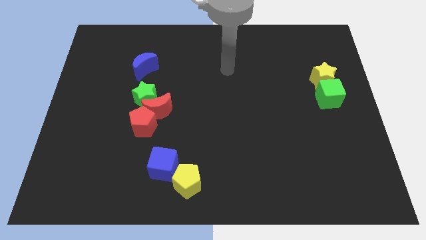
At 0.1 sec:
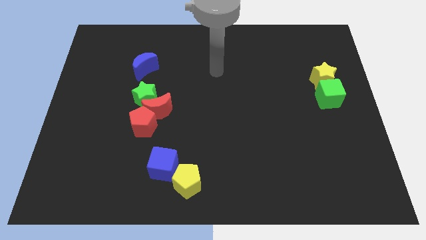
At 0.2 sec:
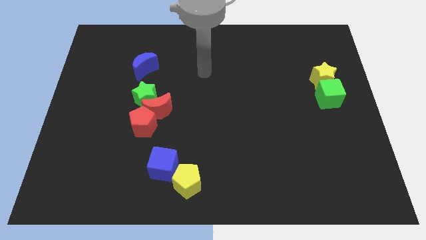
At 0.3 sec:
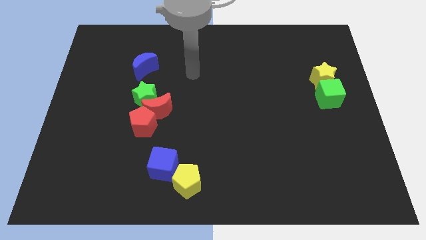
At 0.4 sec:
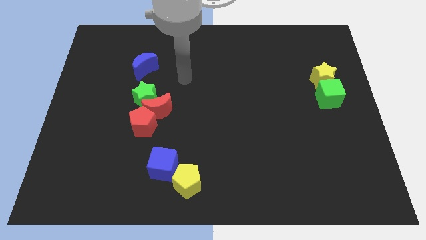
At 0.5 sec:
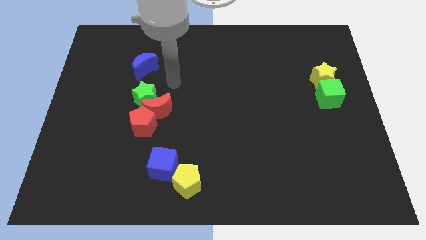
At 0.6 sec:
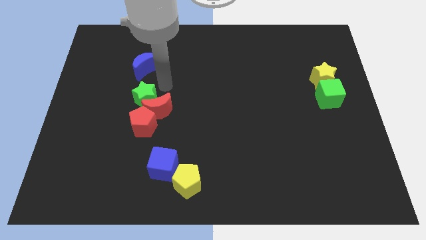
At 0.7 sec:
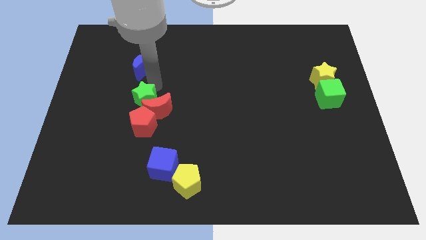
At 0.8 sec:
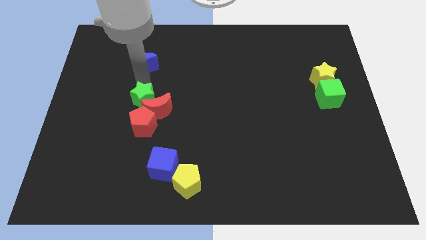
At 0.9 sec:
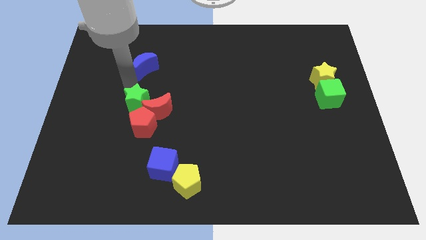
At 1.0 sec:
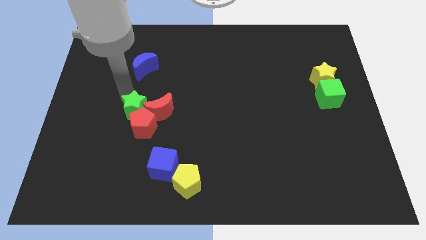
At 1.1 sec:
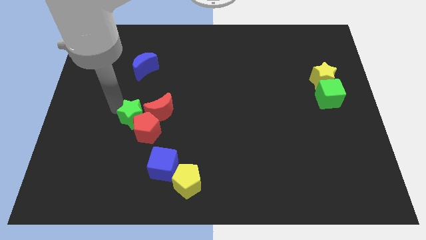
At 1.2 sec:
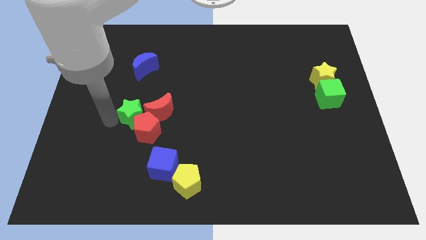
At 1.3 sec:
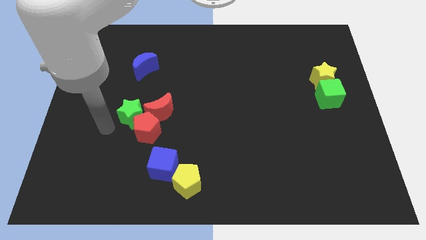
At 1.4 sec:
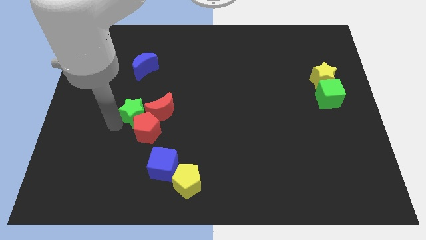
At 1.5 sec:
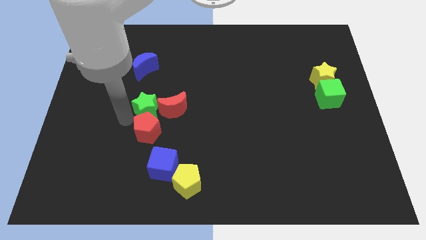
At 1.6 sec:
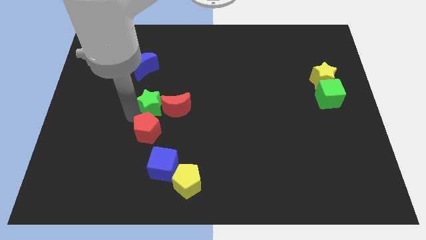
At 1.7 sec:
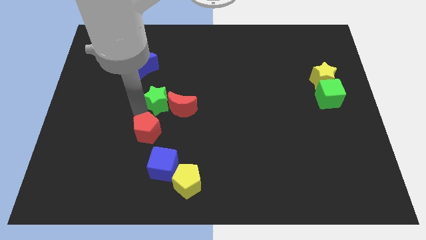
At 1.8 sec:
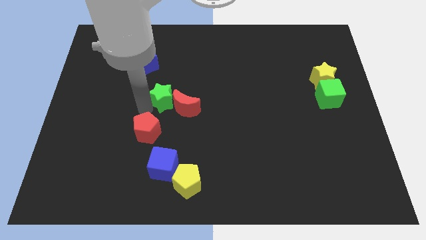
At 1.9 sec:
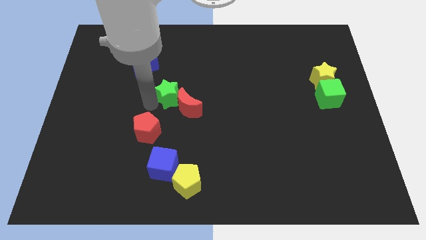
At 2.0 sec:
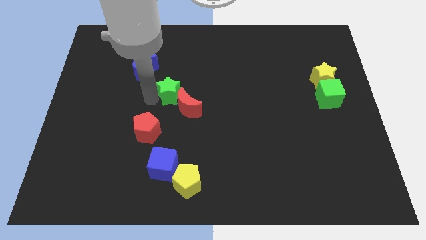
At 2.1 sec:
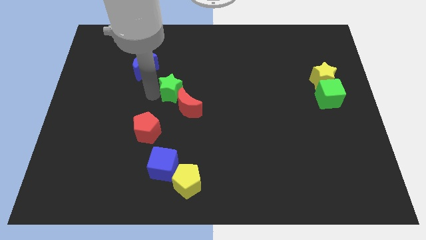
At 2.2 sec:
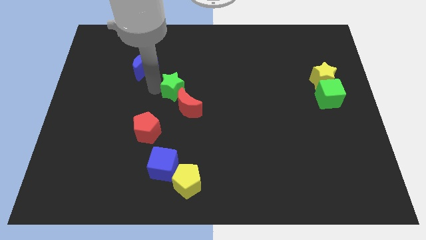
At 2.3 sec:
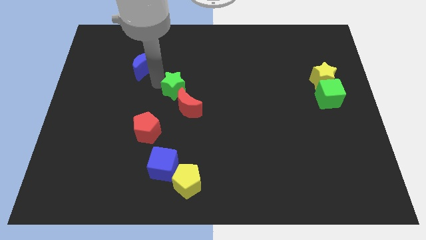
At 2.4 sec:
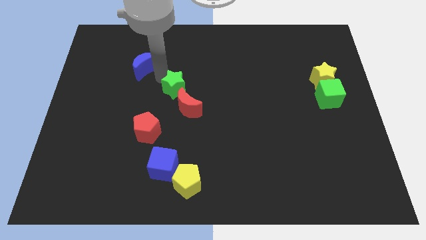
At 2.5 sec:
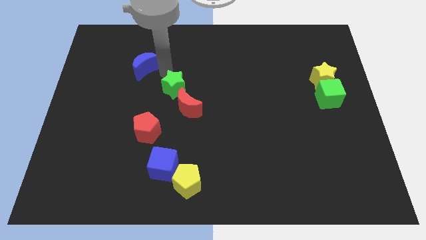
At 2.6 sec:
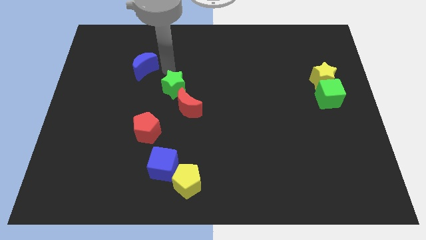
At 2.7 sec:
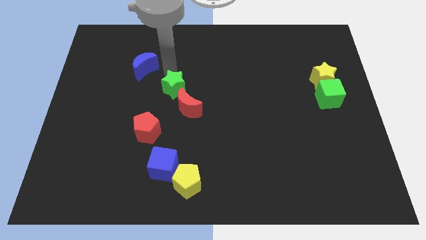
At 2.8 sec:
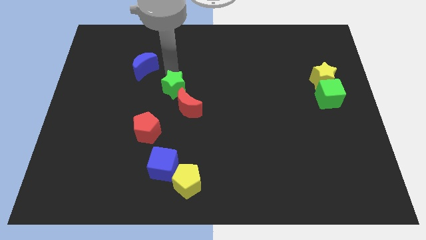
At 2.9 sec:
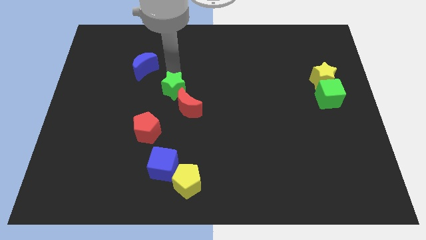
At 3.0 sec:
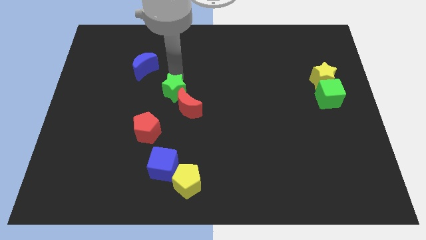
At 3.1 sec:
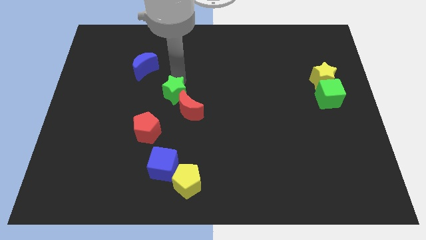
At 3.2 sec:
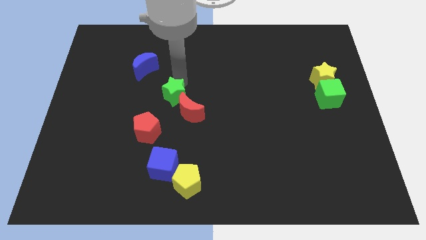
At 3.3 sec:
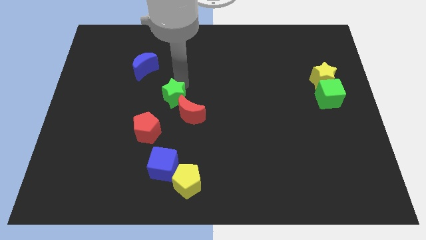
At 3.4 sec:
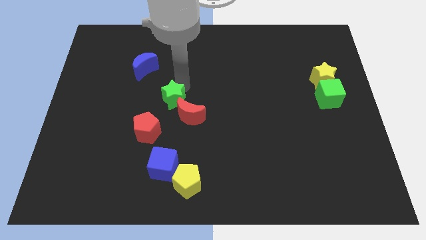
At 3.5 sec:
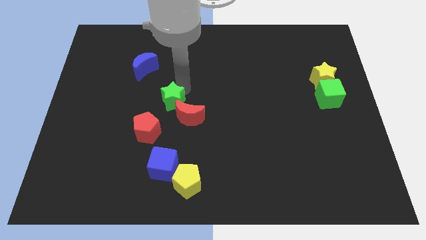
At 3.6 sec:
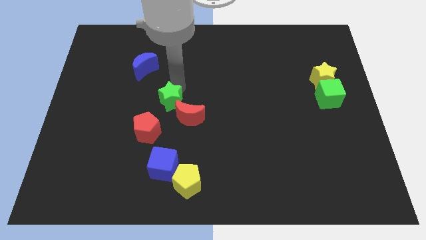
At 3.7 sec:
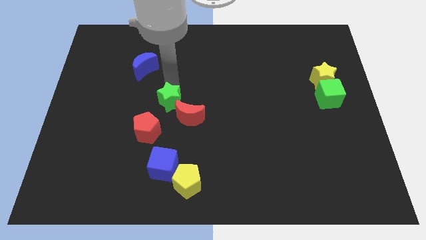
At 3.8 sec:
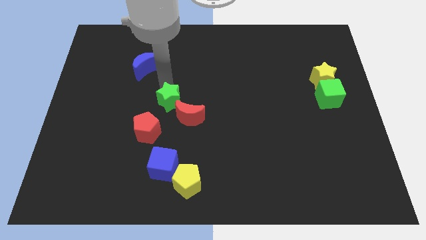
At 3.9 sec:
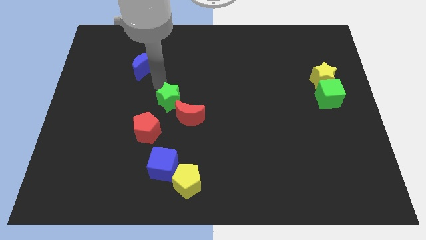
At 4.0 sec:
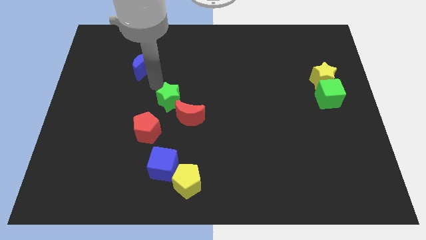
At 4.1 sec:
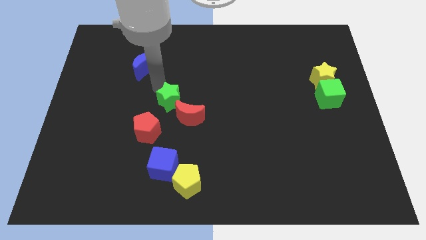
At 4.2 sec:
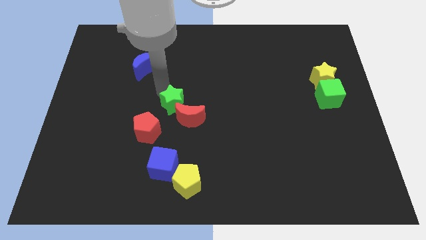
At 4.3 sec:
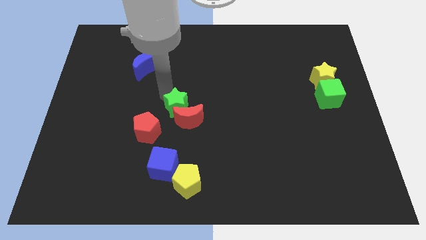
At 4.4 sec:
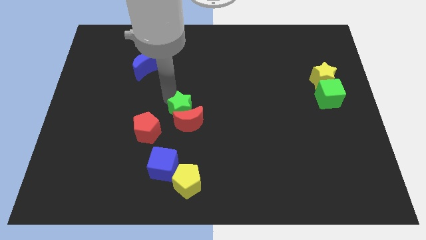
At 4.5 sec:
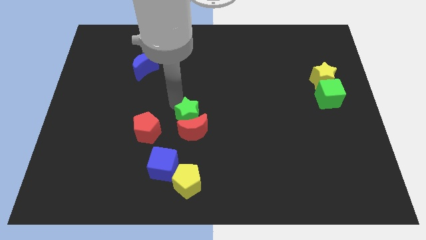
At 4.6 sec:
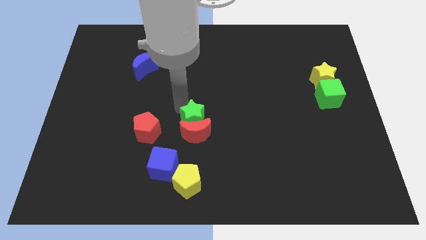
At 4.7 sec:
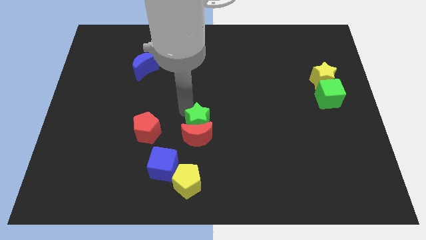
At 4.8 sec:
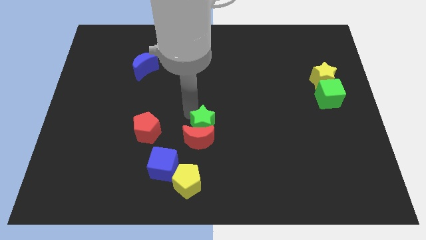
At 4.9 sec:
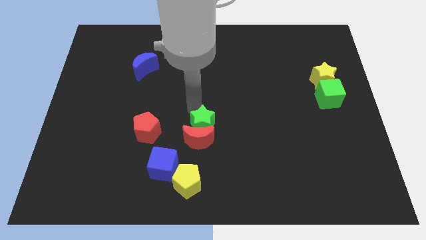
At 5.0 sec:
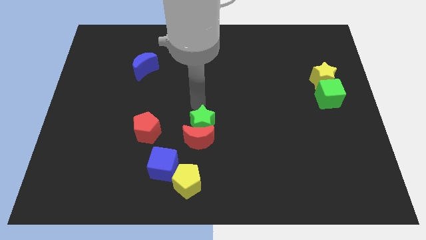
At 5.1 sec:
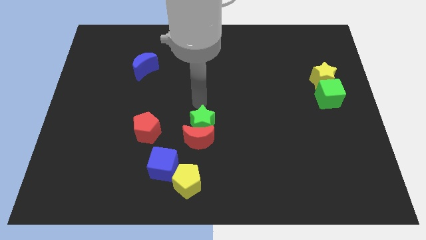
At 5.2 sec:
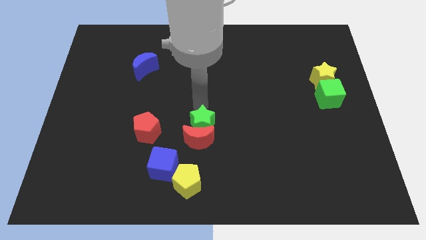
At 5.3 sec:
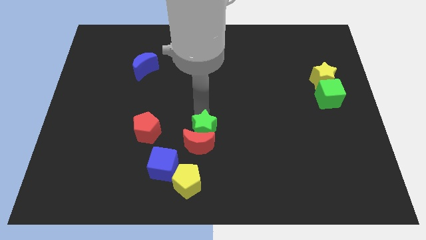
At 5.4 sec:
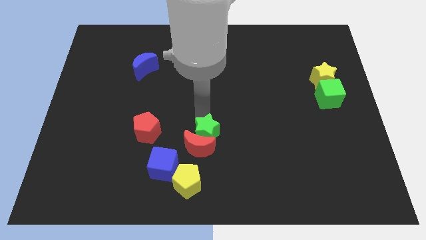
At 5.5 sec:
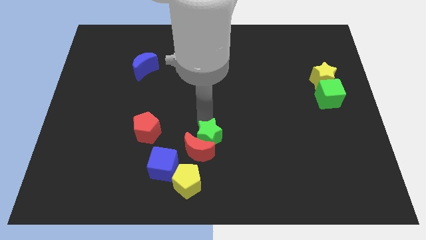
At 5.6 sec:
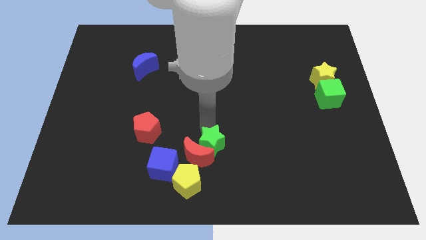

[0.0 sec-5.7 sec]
move the green star diagonally up and to the right of the yellow pentagon

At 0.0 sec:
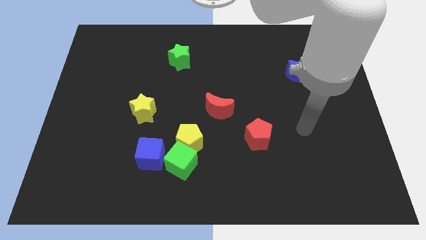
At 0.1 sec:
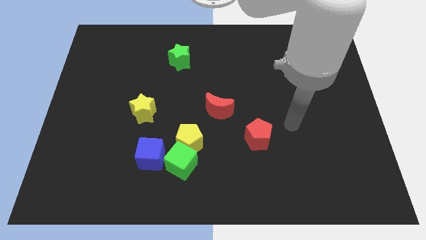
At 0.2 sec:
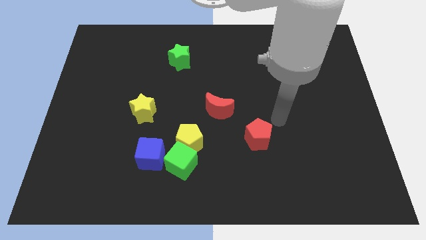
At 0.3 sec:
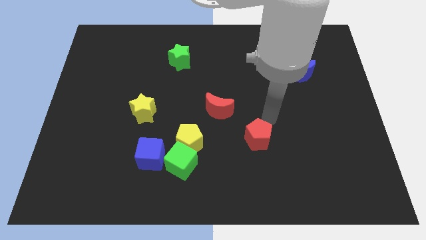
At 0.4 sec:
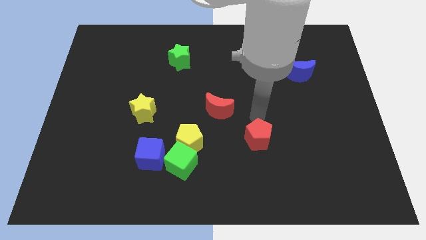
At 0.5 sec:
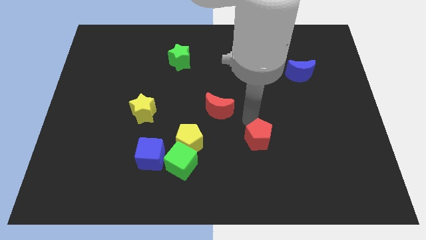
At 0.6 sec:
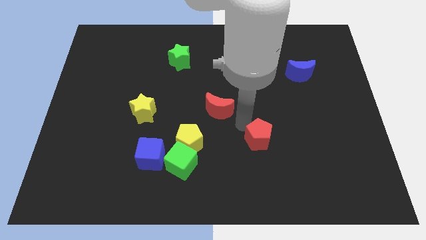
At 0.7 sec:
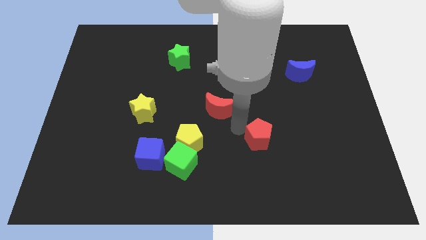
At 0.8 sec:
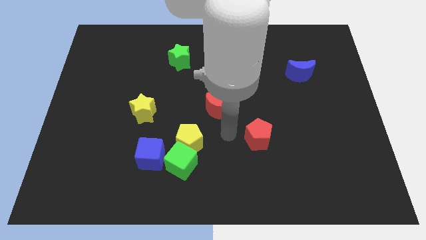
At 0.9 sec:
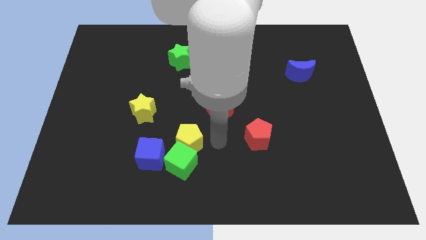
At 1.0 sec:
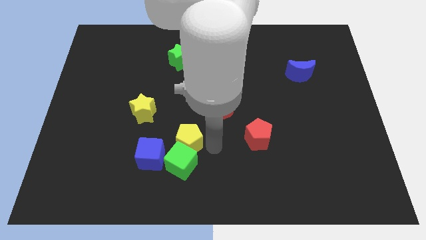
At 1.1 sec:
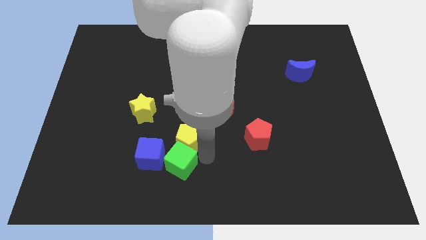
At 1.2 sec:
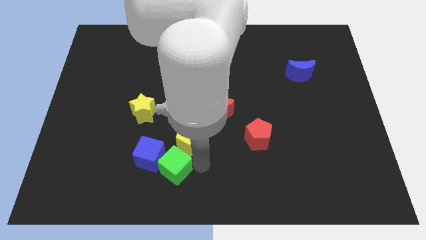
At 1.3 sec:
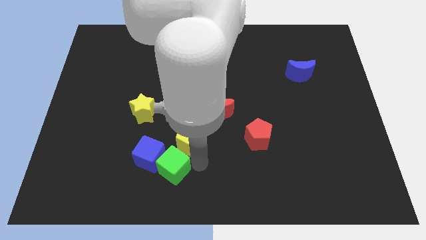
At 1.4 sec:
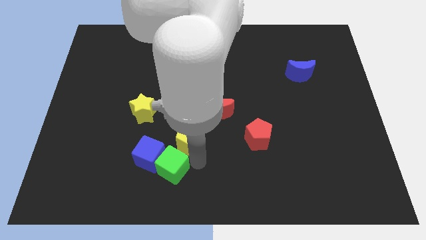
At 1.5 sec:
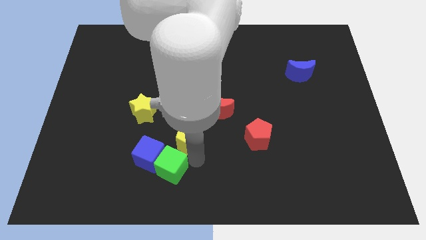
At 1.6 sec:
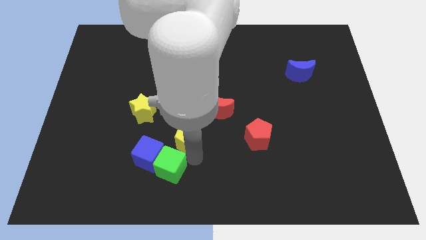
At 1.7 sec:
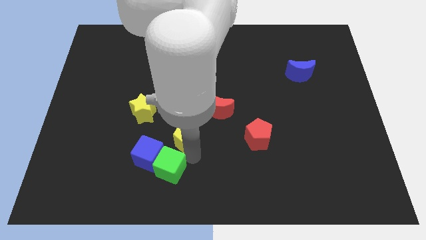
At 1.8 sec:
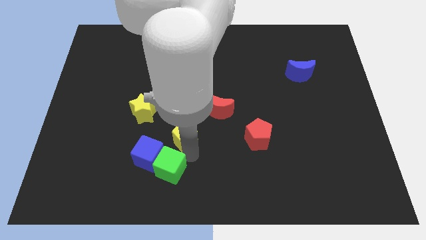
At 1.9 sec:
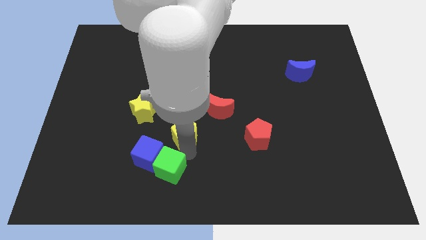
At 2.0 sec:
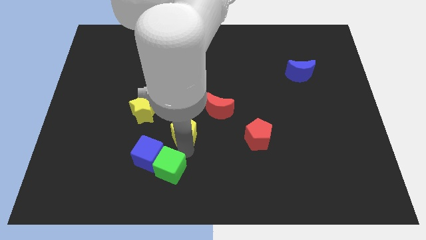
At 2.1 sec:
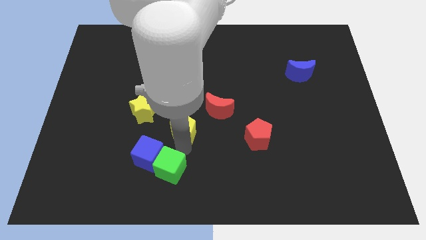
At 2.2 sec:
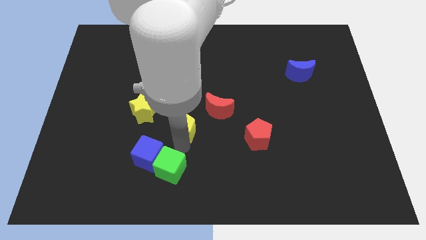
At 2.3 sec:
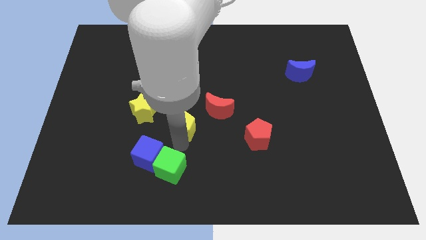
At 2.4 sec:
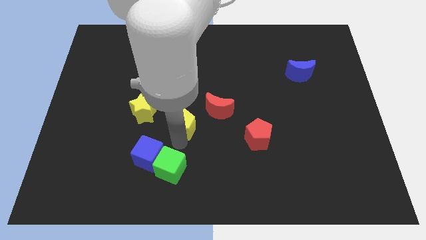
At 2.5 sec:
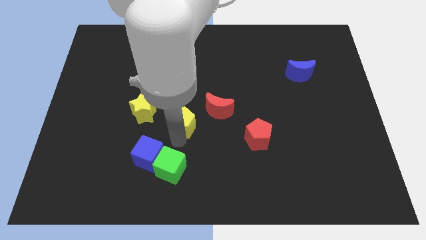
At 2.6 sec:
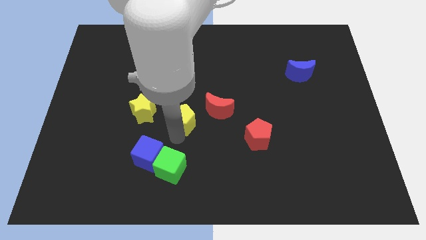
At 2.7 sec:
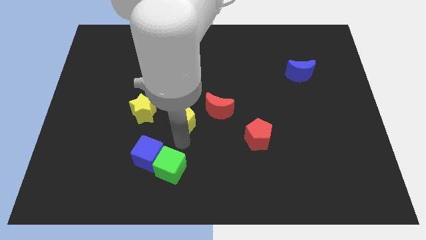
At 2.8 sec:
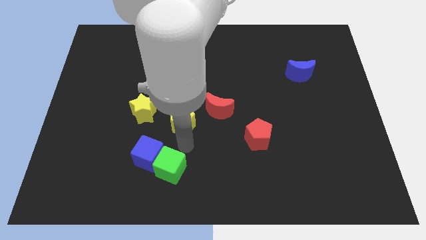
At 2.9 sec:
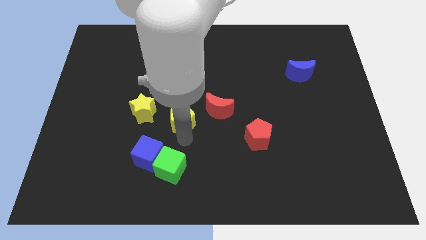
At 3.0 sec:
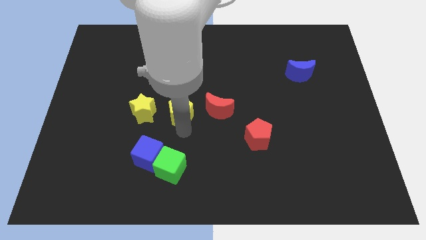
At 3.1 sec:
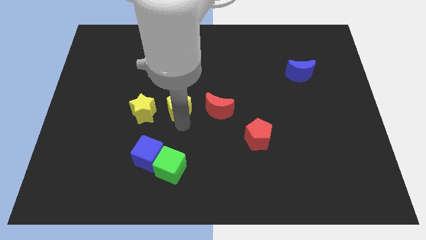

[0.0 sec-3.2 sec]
move the yellow pentagon to the bottom of the green star
